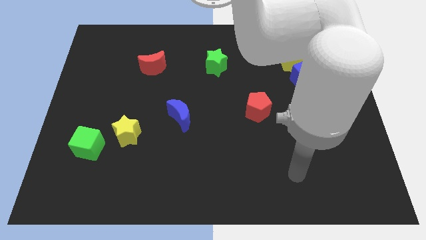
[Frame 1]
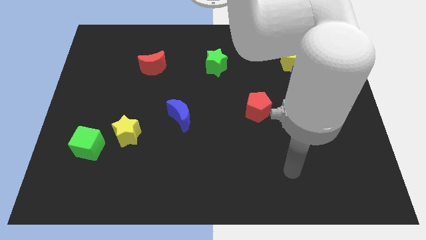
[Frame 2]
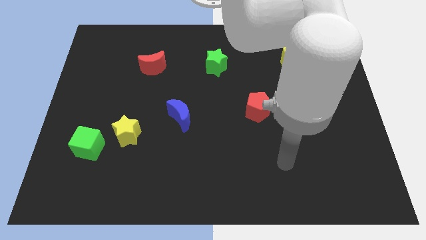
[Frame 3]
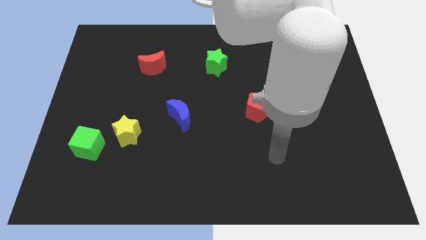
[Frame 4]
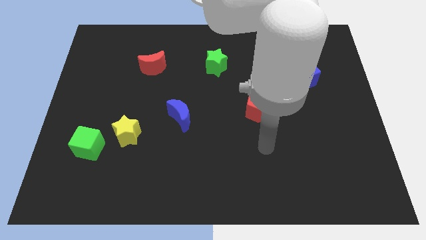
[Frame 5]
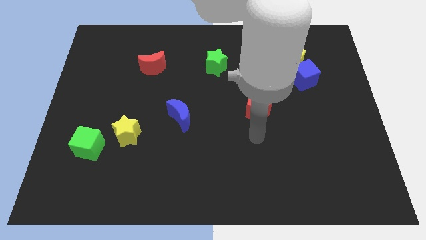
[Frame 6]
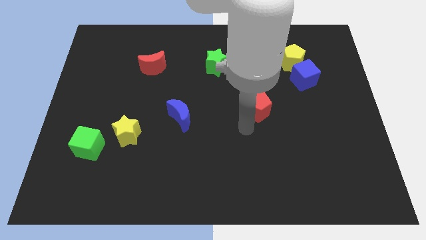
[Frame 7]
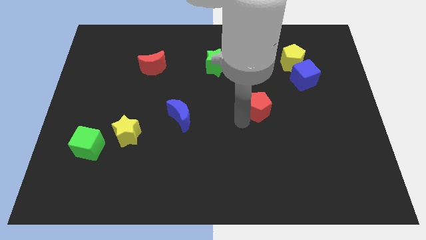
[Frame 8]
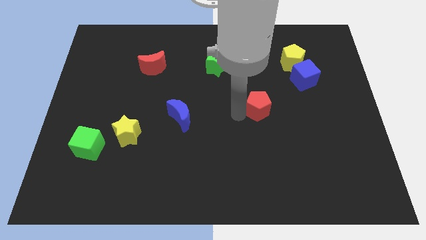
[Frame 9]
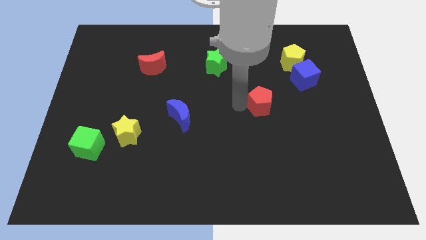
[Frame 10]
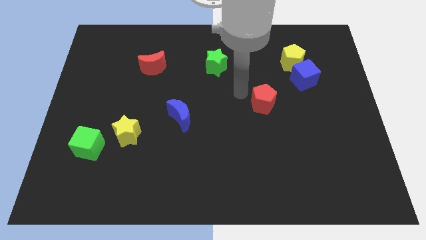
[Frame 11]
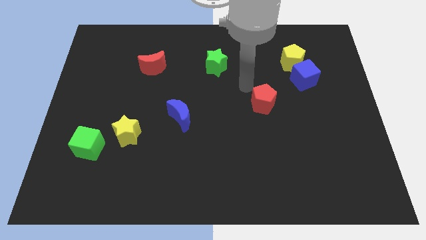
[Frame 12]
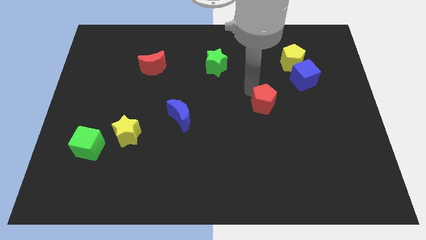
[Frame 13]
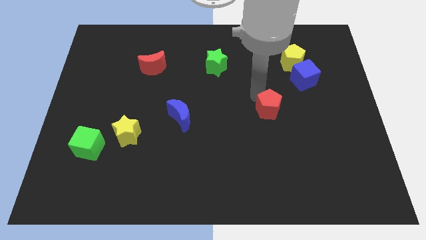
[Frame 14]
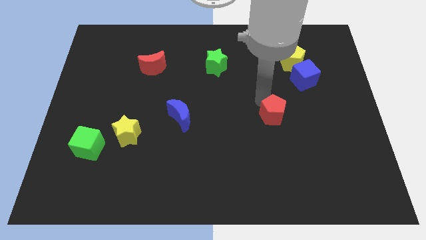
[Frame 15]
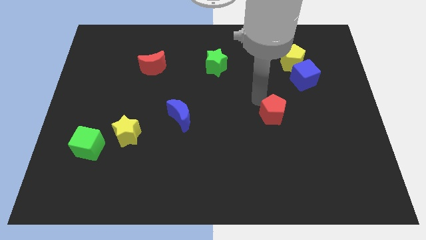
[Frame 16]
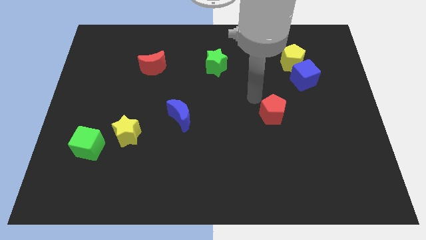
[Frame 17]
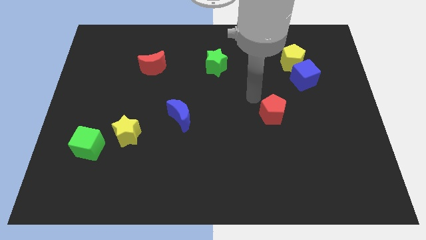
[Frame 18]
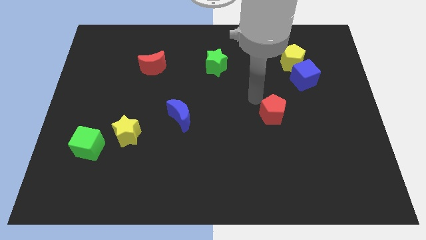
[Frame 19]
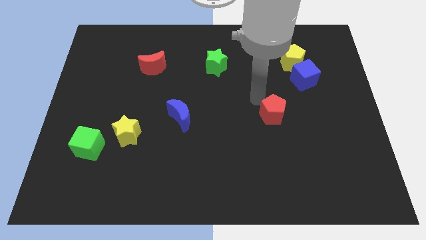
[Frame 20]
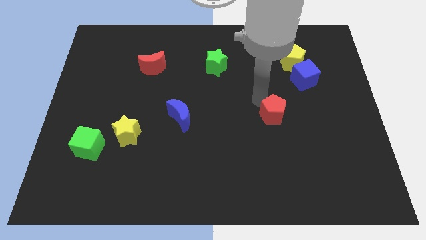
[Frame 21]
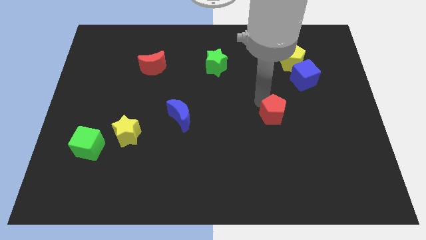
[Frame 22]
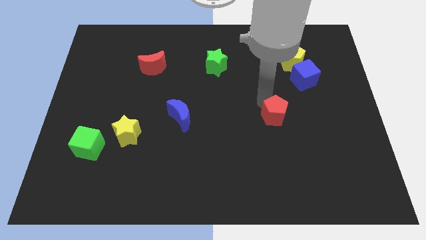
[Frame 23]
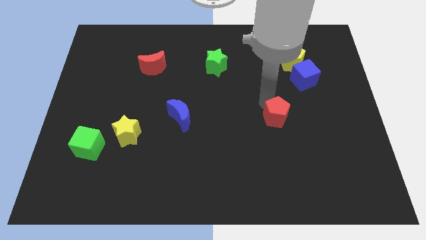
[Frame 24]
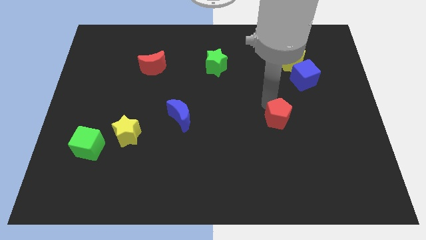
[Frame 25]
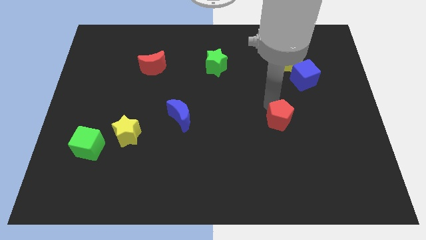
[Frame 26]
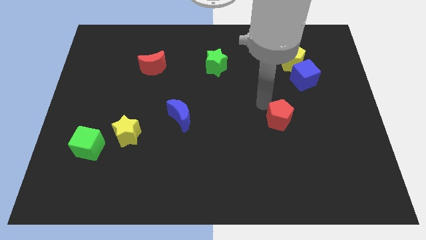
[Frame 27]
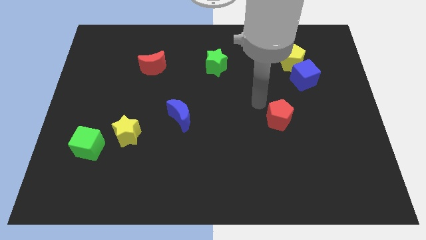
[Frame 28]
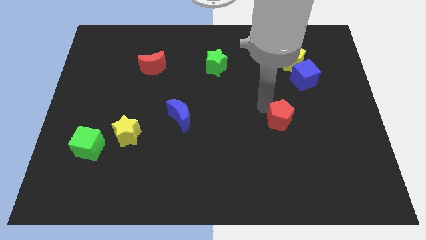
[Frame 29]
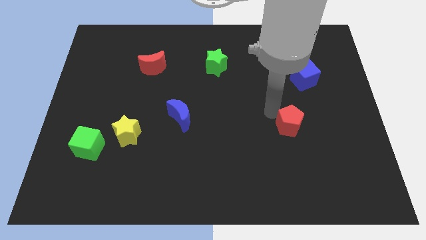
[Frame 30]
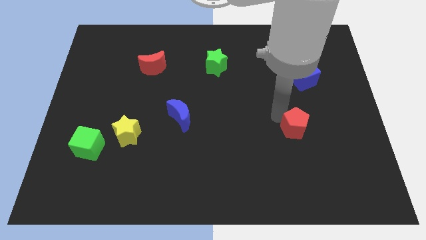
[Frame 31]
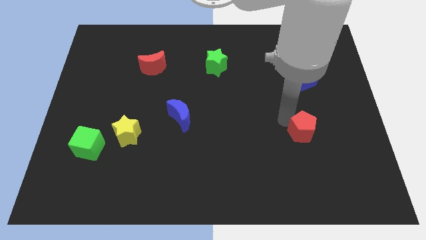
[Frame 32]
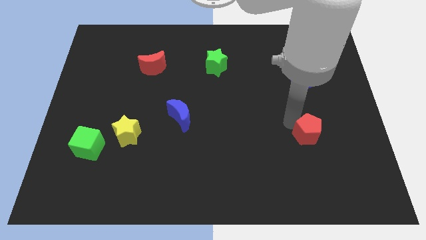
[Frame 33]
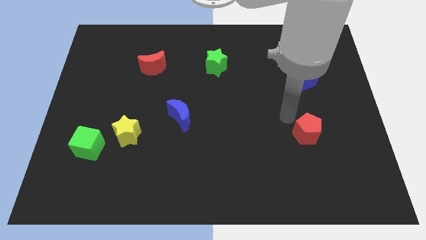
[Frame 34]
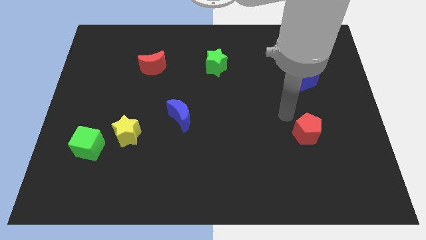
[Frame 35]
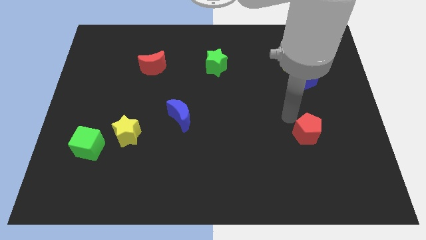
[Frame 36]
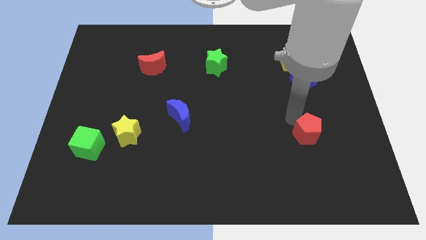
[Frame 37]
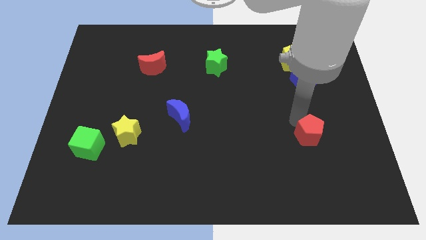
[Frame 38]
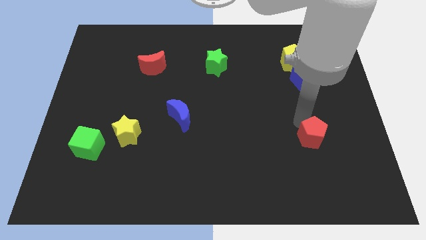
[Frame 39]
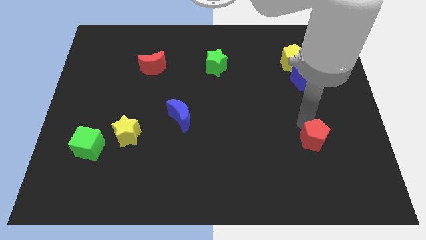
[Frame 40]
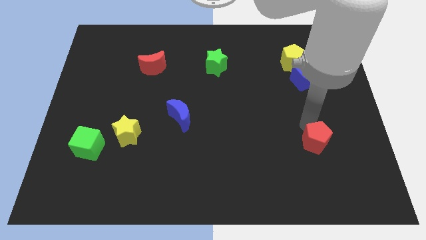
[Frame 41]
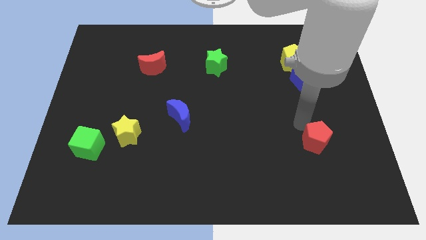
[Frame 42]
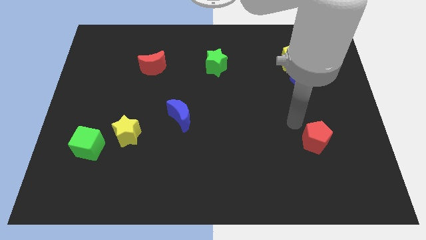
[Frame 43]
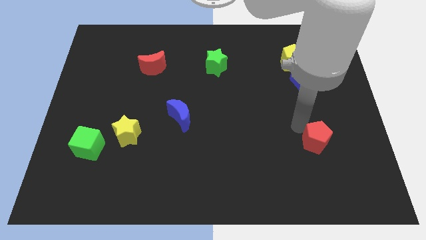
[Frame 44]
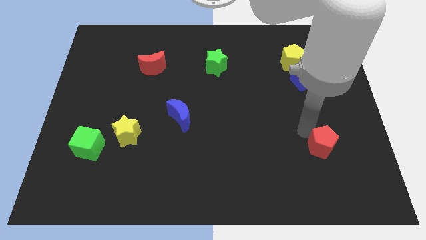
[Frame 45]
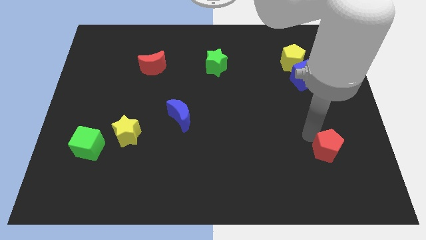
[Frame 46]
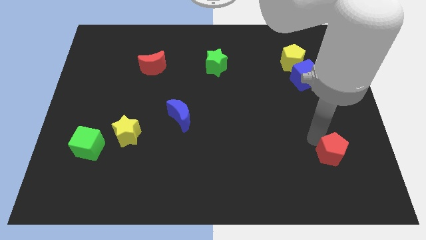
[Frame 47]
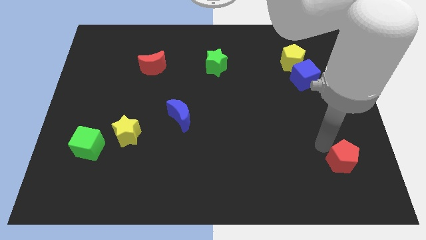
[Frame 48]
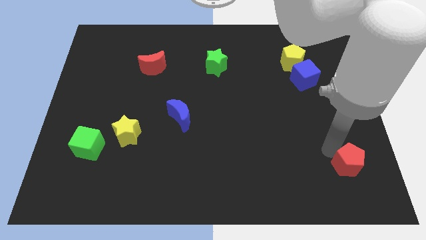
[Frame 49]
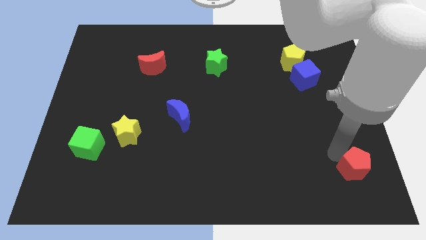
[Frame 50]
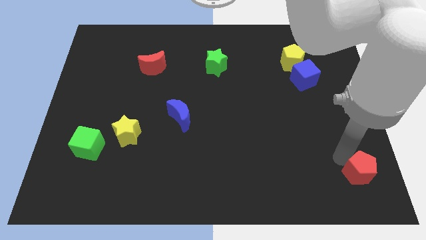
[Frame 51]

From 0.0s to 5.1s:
push the red pentagon to the bottom right

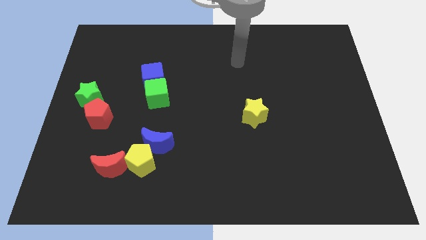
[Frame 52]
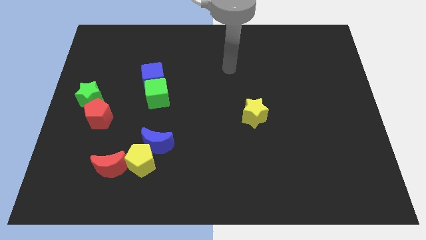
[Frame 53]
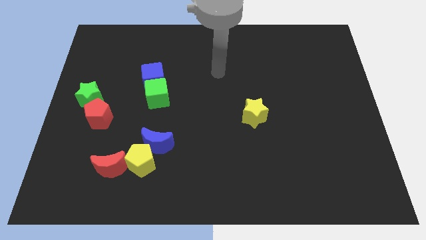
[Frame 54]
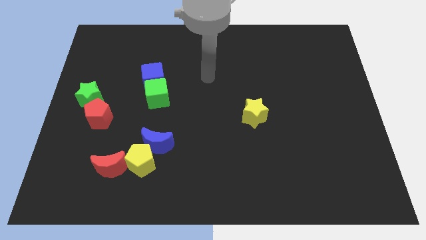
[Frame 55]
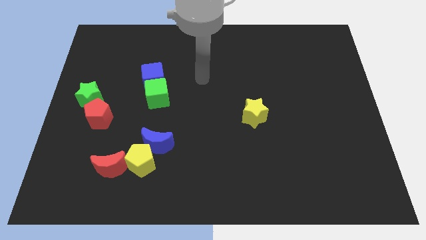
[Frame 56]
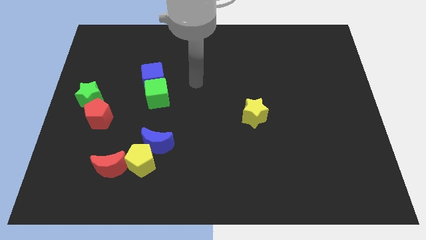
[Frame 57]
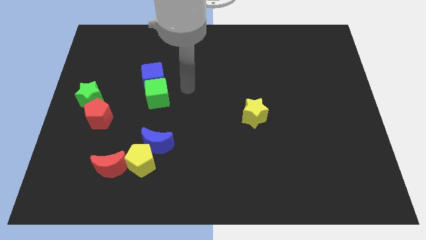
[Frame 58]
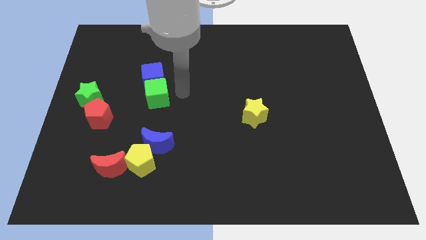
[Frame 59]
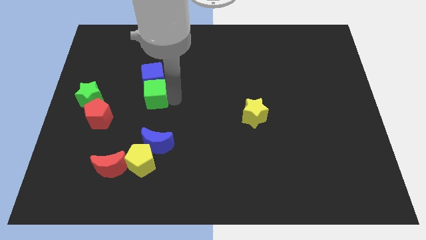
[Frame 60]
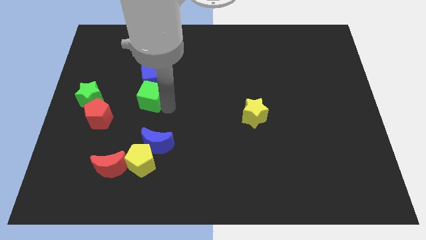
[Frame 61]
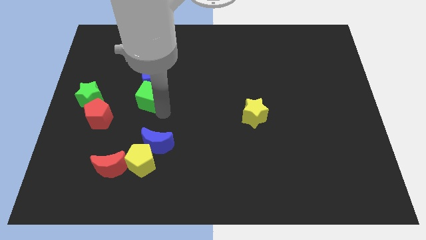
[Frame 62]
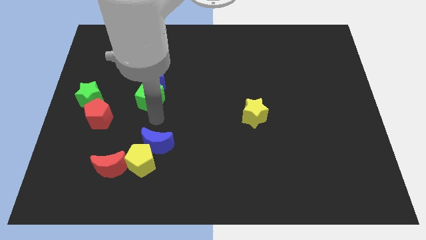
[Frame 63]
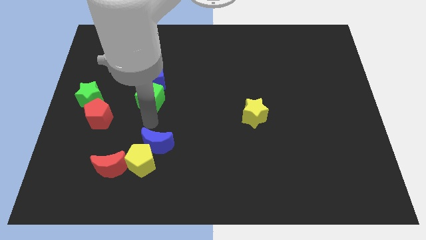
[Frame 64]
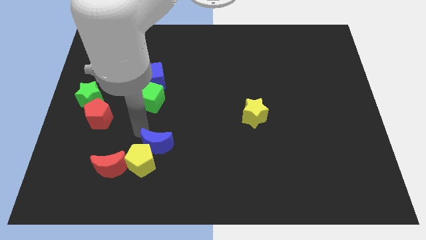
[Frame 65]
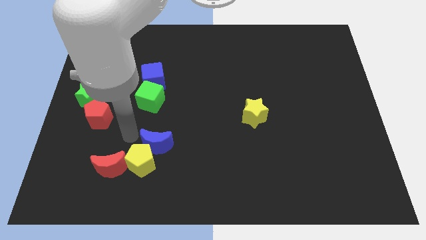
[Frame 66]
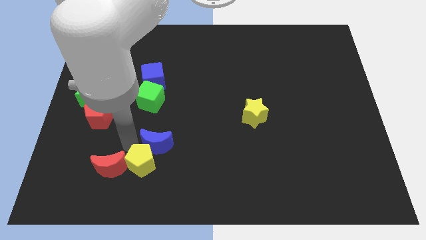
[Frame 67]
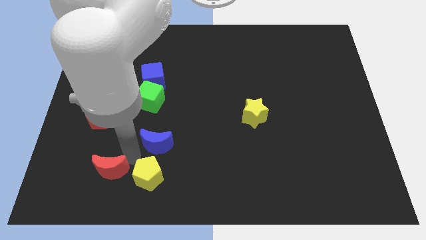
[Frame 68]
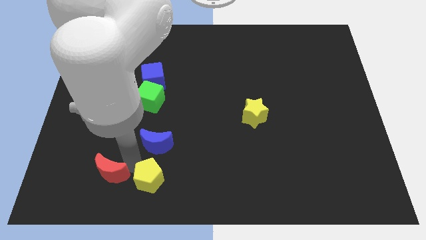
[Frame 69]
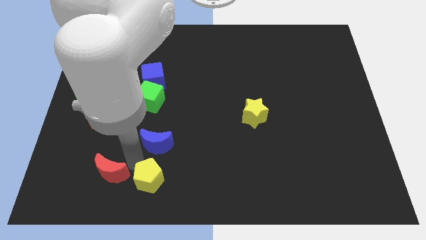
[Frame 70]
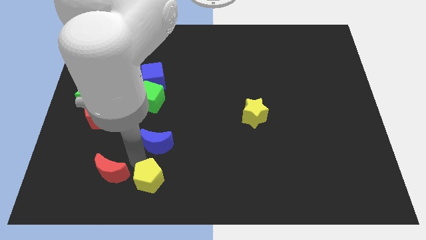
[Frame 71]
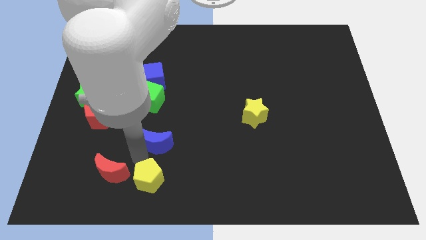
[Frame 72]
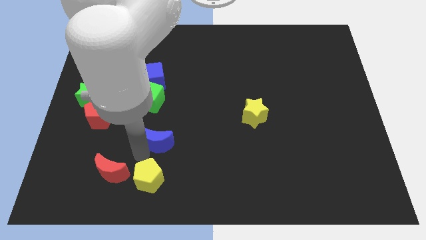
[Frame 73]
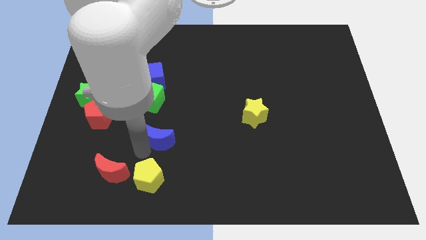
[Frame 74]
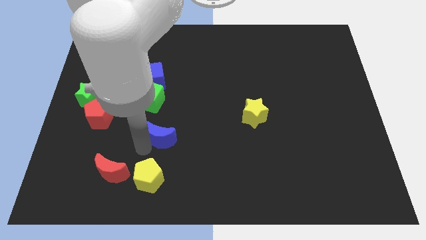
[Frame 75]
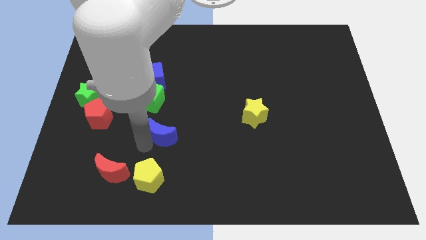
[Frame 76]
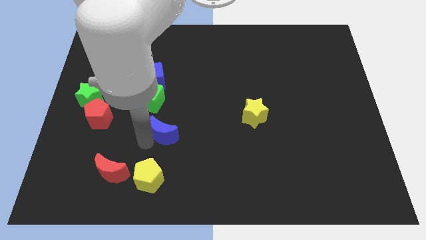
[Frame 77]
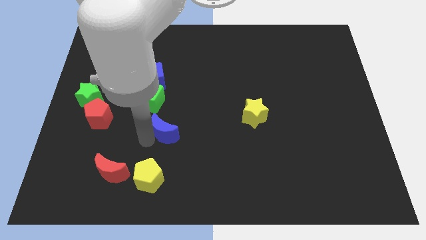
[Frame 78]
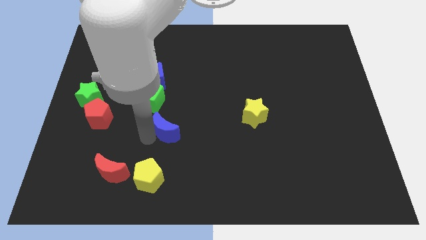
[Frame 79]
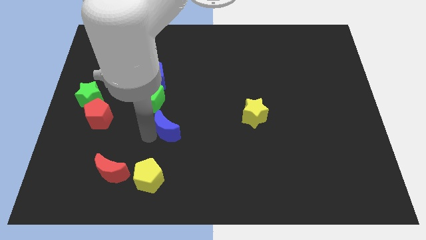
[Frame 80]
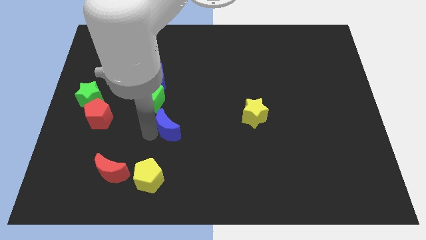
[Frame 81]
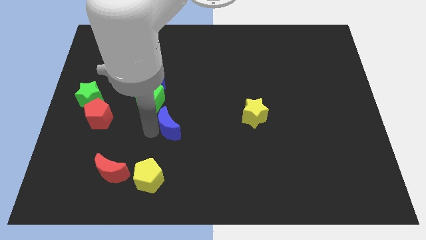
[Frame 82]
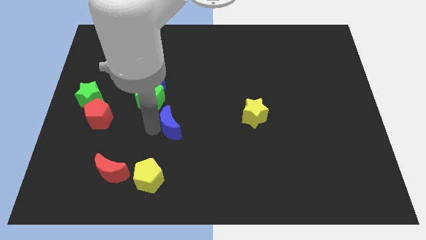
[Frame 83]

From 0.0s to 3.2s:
put the blue moon to the middle
